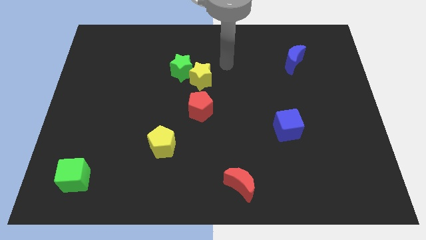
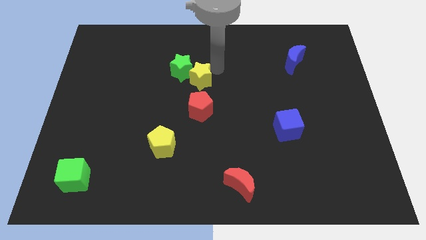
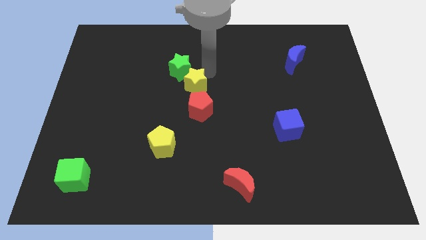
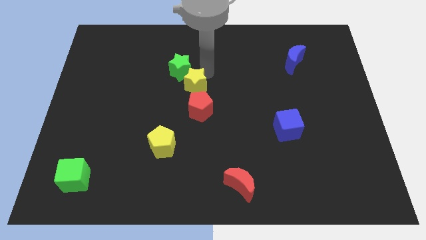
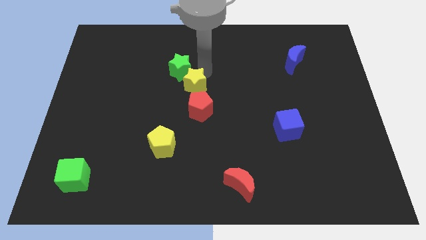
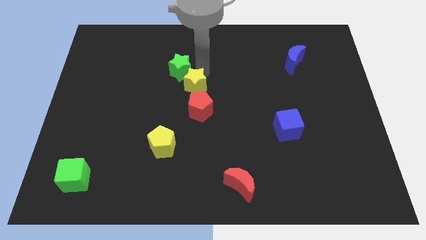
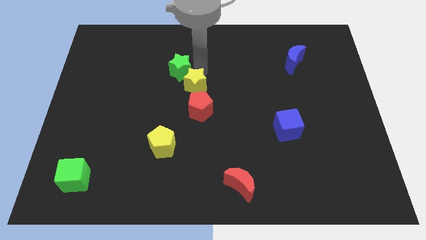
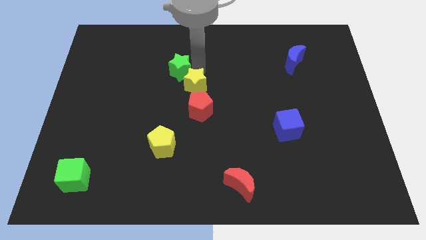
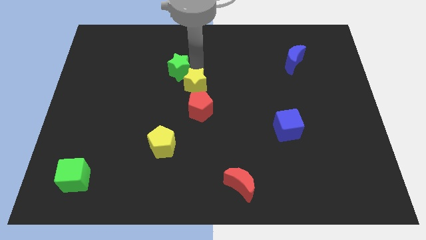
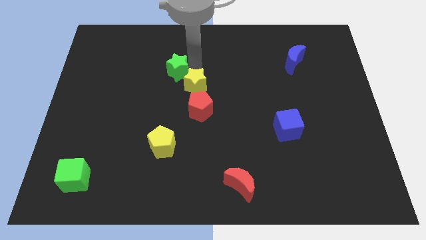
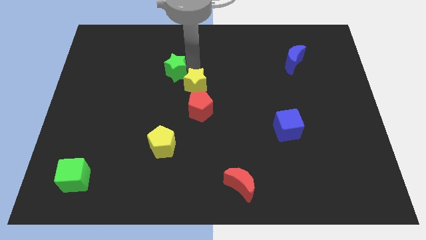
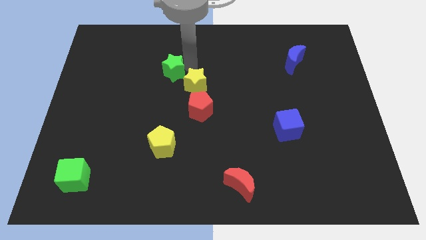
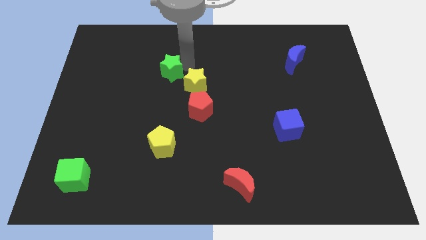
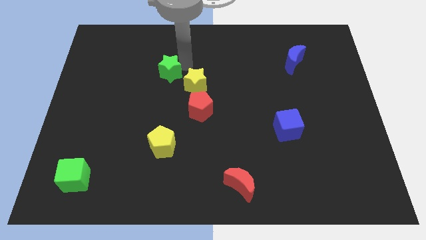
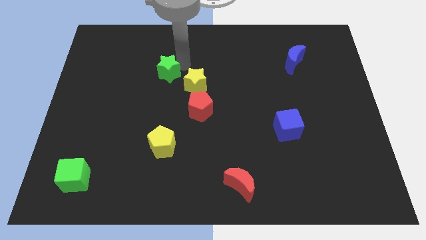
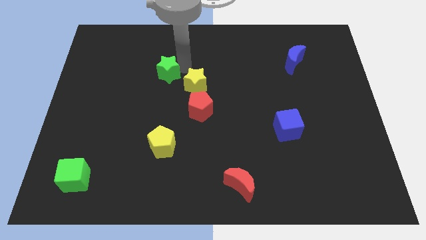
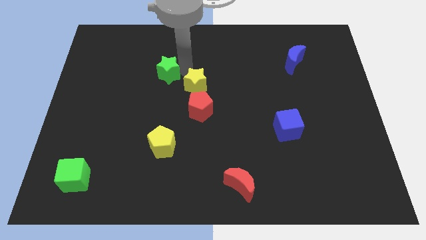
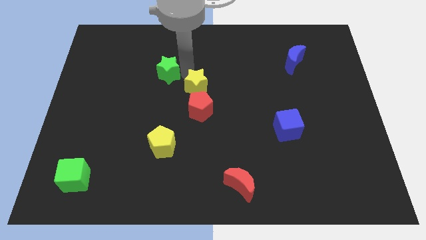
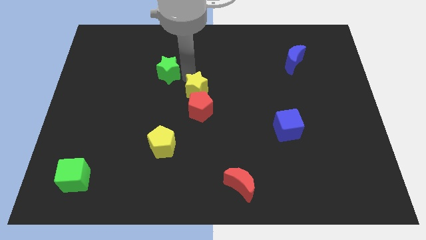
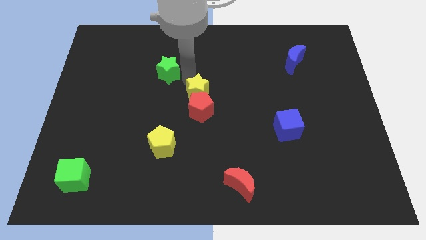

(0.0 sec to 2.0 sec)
move the green star away from the yellow star

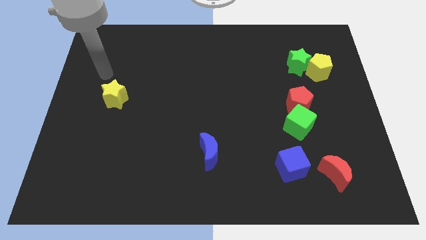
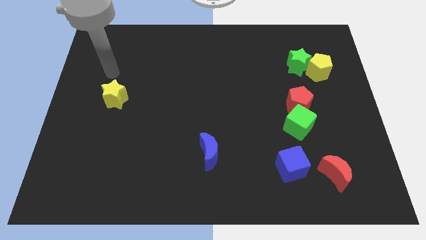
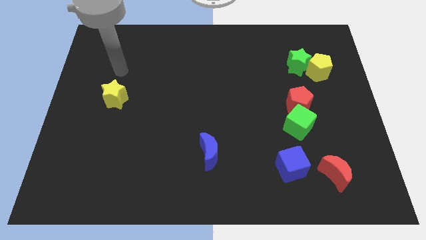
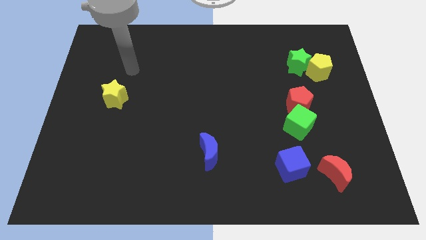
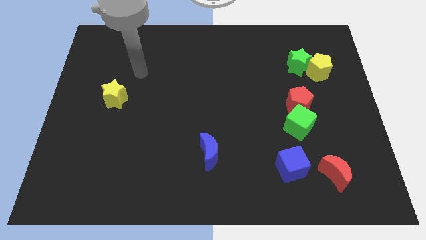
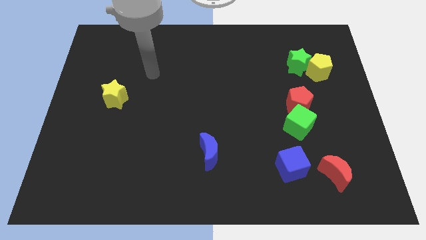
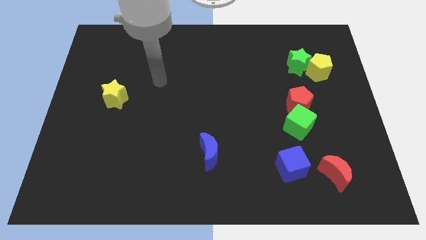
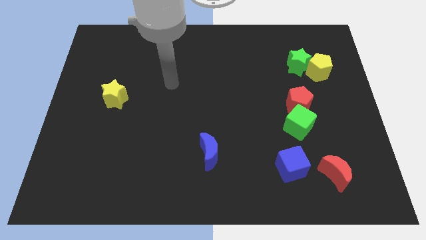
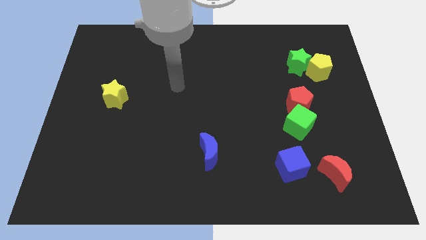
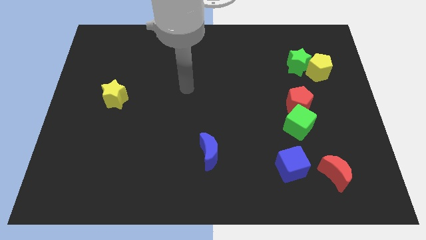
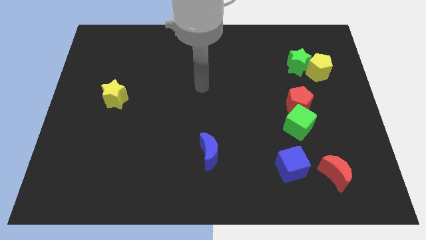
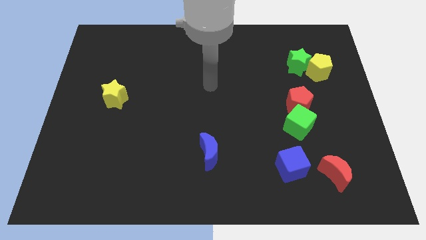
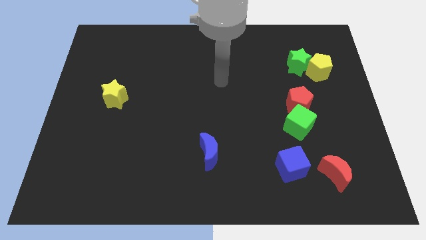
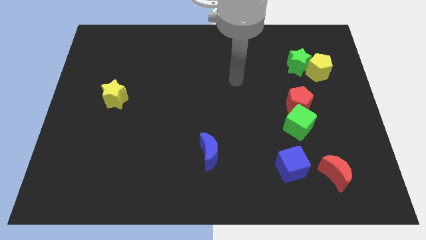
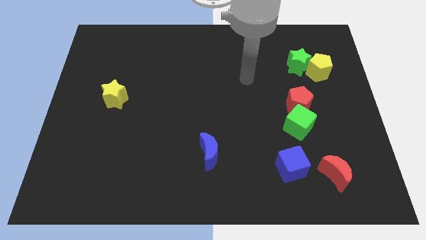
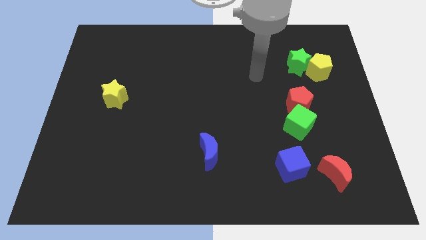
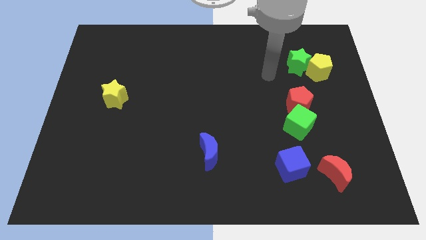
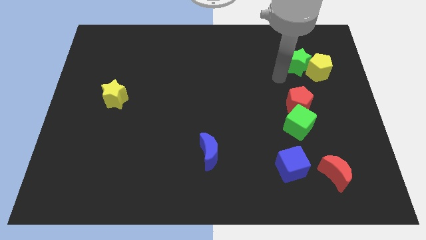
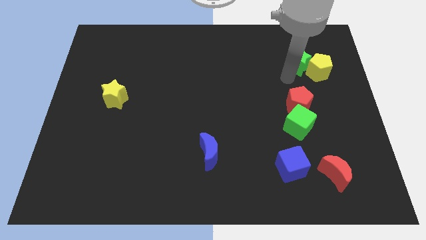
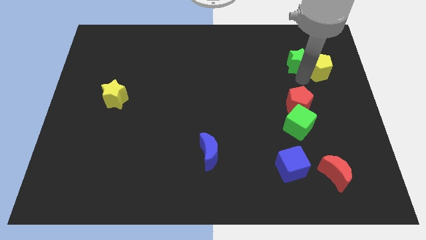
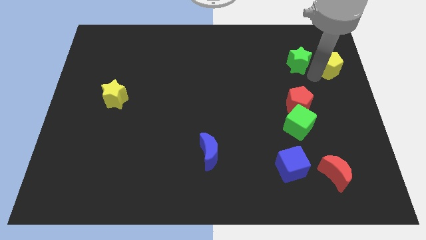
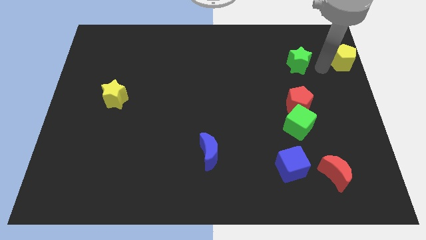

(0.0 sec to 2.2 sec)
move the green star away from the yellow pentagon

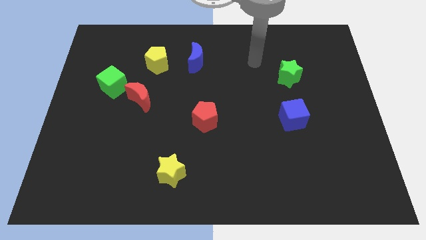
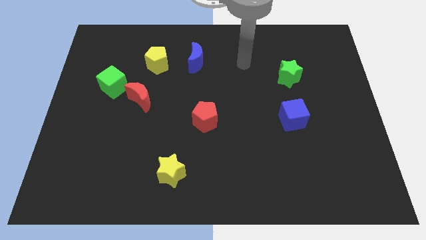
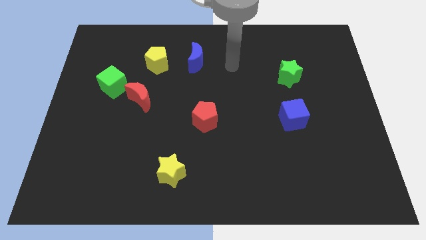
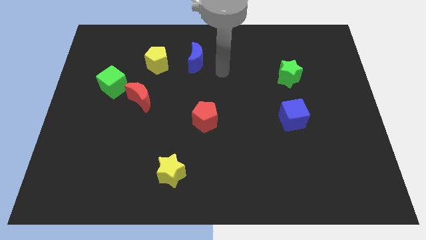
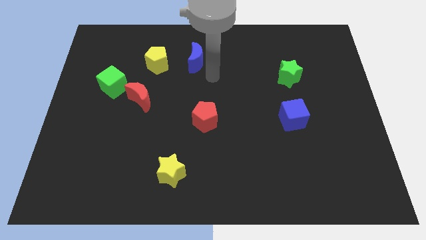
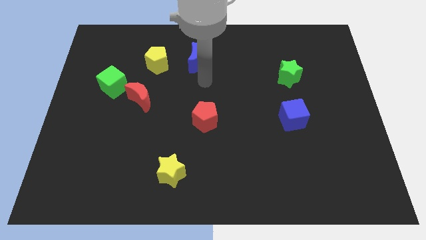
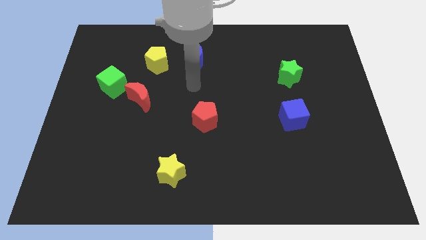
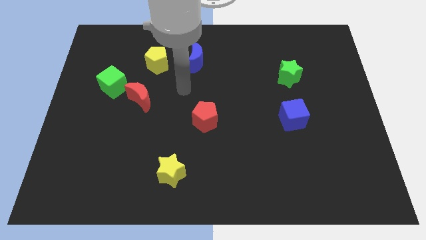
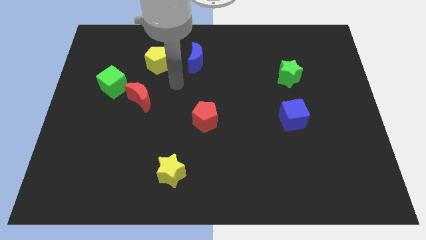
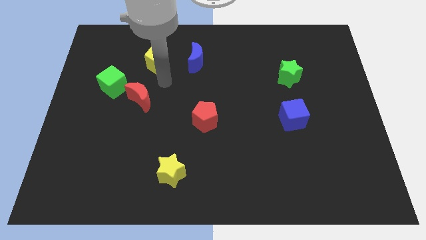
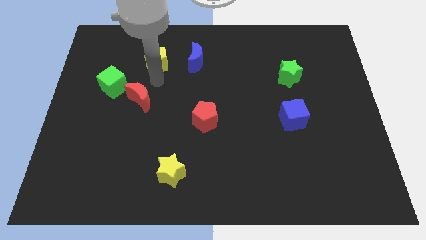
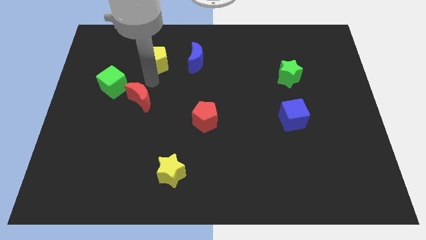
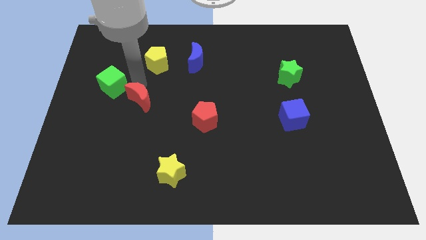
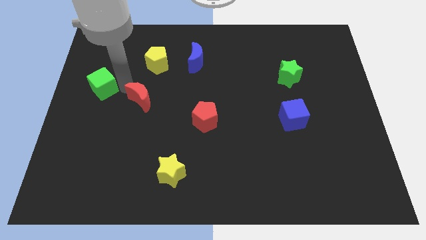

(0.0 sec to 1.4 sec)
pull the red moon apart from the green cube

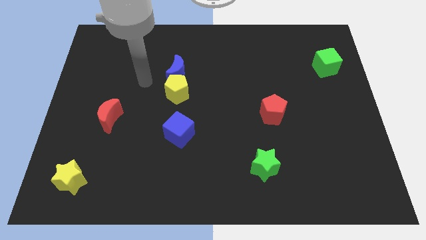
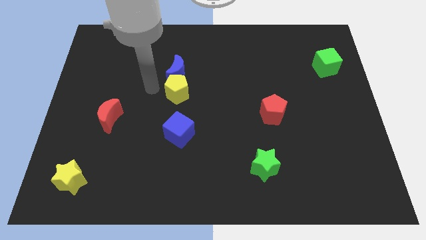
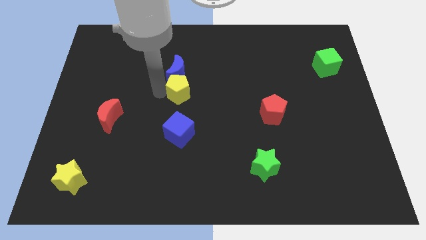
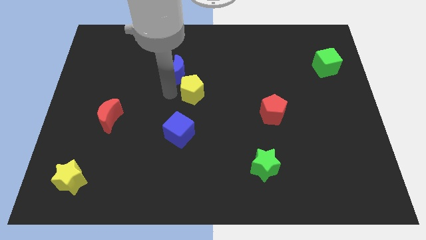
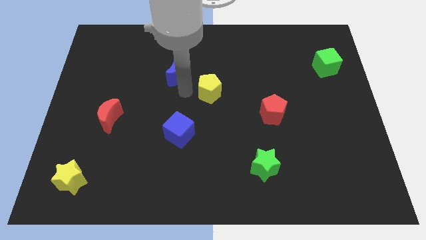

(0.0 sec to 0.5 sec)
move the blue moon away from the yellow pentagon

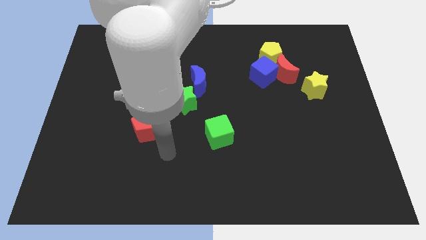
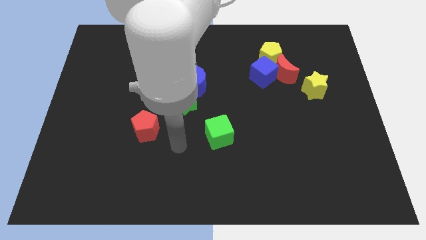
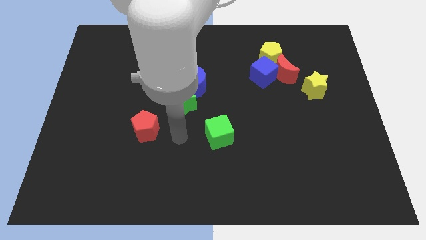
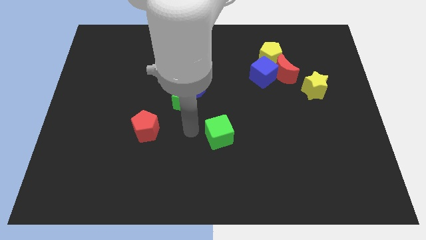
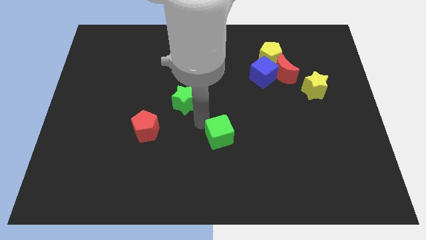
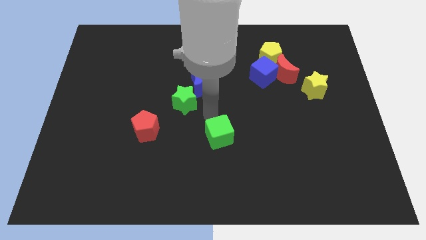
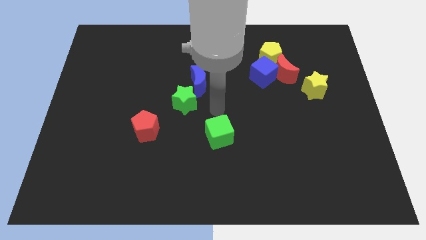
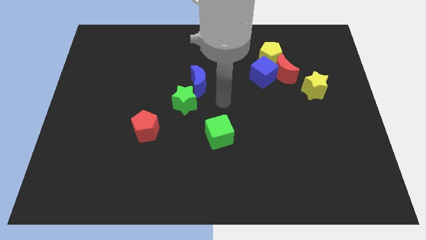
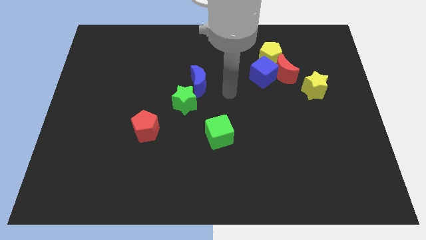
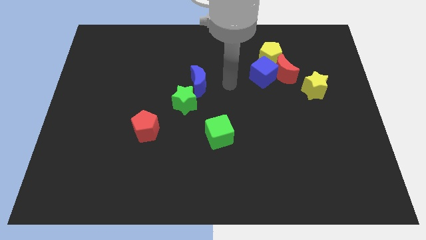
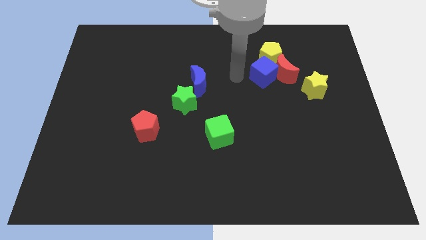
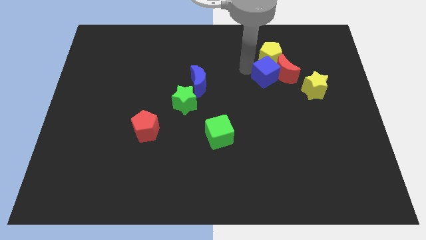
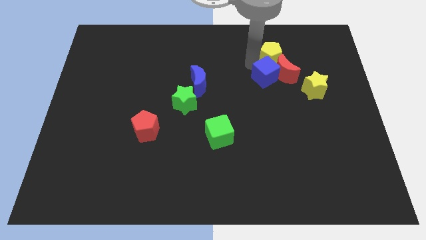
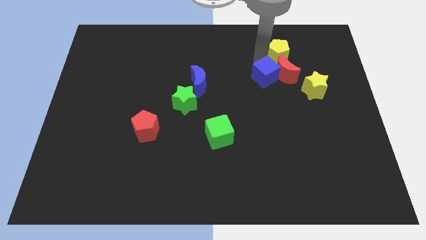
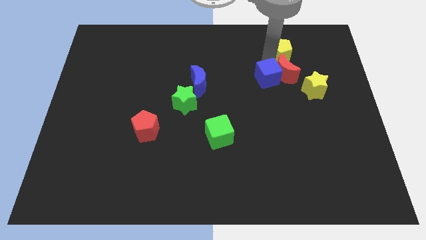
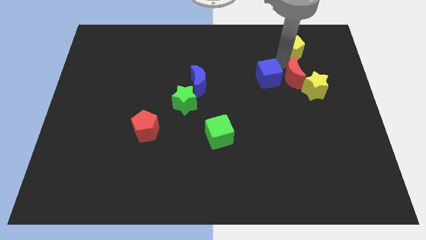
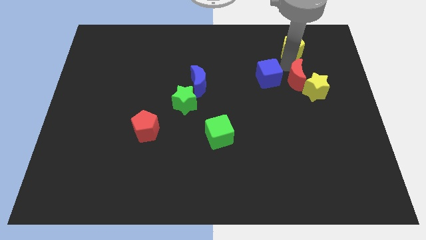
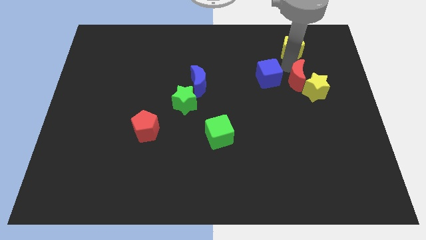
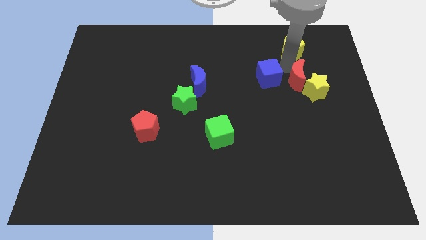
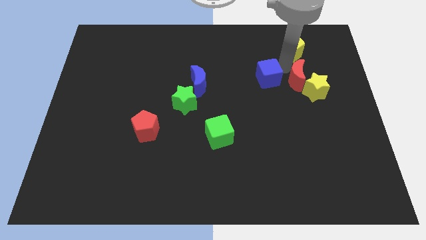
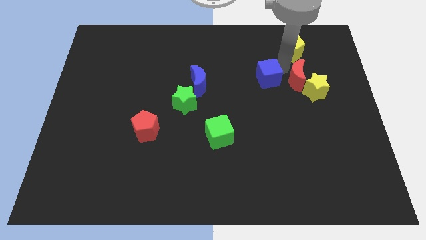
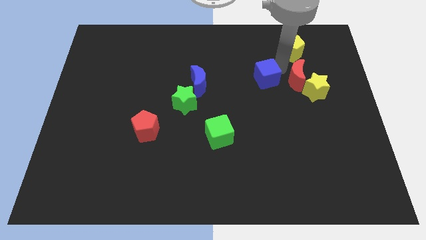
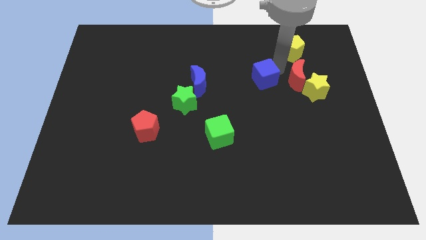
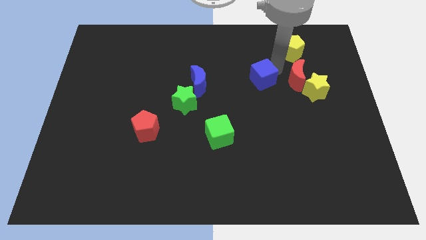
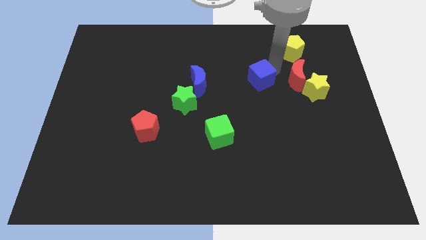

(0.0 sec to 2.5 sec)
move the blue cube away from the red moon and yellow pentagon

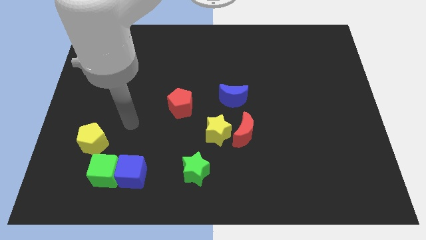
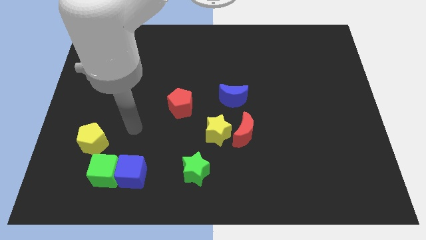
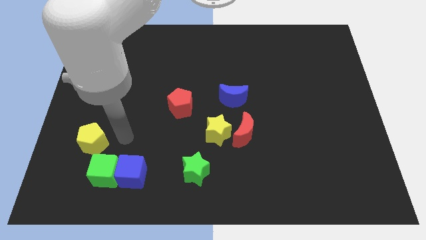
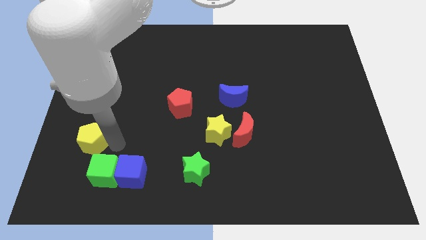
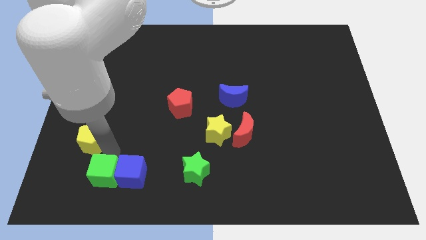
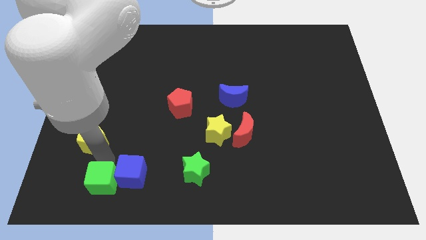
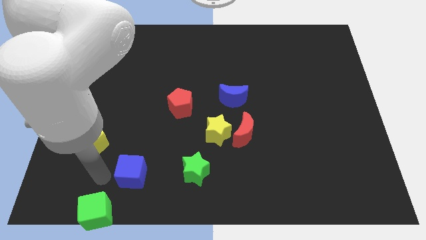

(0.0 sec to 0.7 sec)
separate the blue cube from the green cube

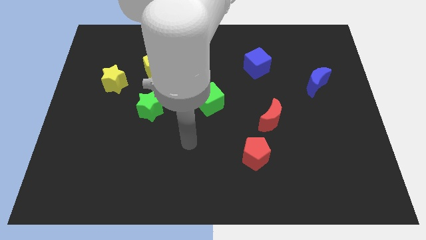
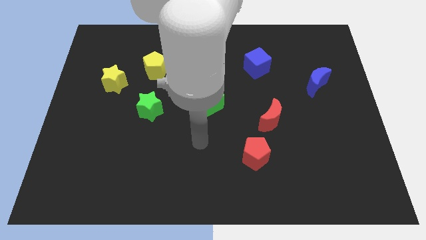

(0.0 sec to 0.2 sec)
pull the red moon apart from the red pentagon

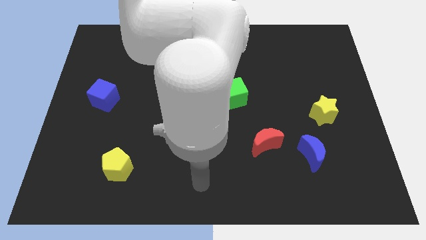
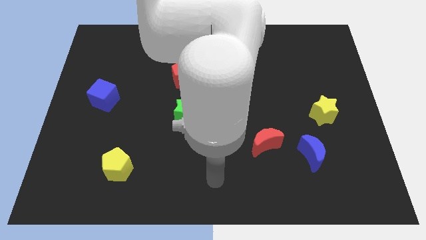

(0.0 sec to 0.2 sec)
move the red moon away from the blue moon
